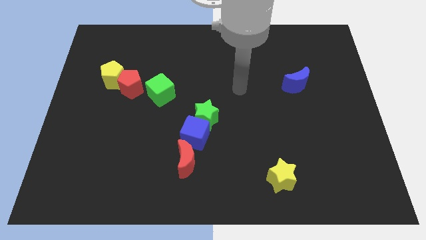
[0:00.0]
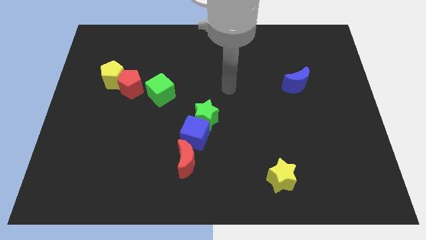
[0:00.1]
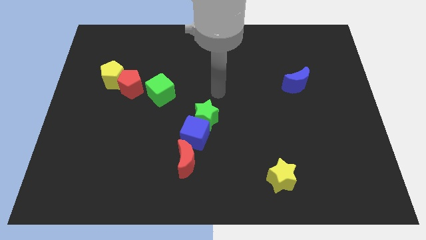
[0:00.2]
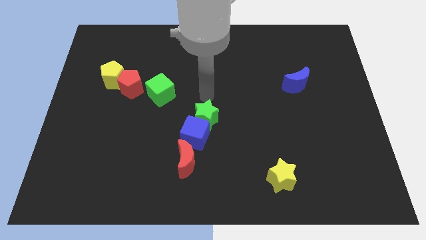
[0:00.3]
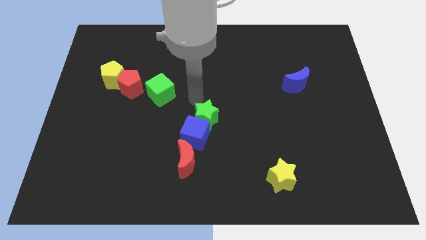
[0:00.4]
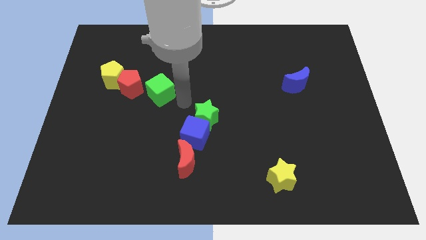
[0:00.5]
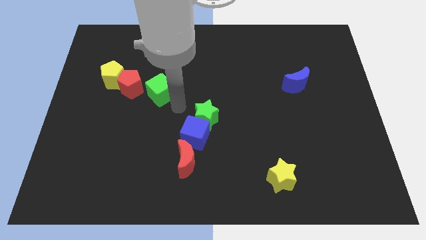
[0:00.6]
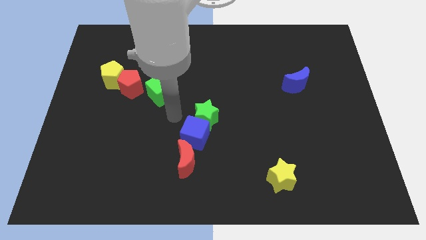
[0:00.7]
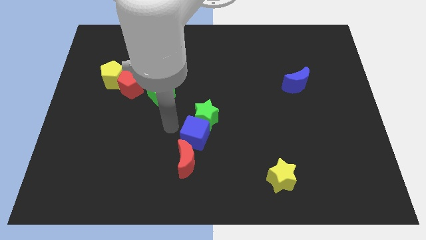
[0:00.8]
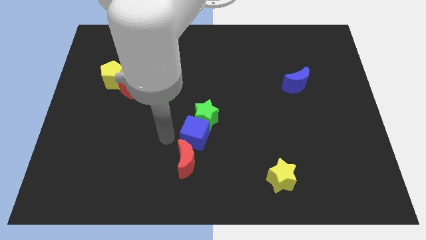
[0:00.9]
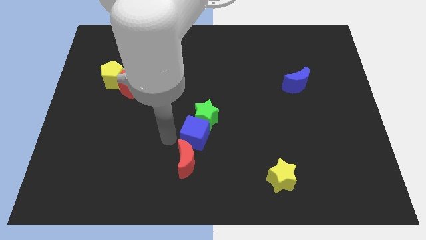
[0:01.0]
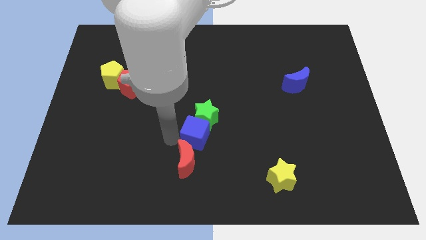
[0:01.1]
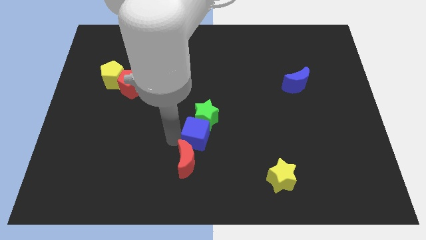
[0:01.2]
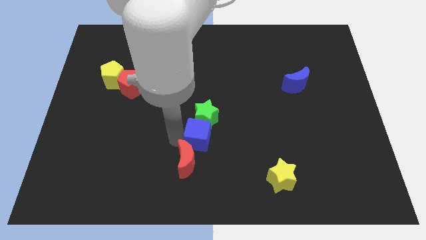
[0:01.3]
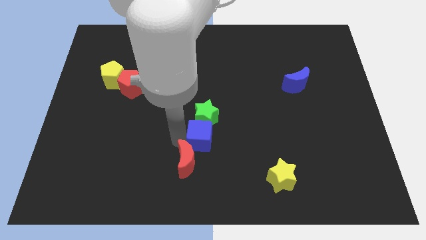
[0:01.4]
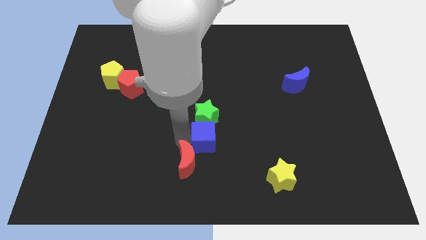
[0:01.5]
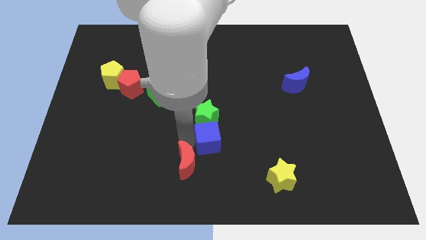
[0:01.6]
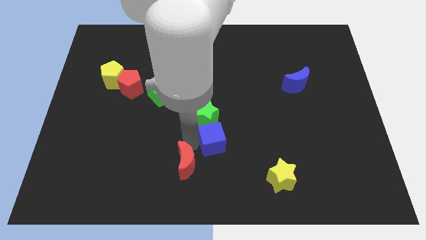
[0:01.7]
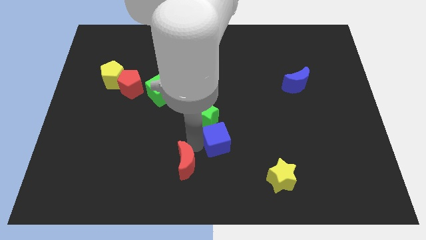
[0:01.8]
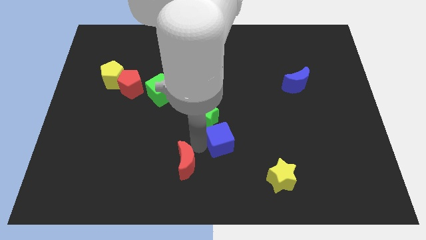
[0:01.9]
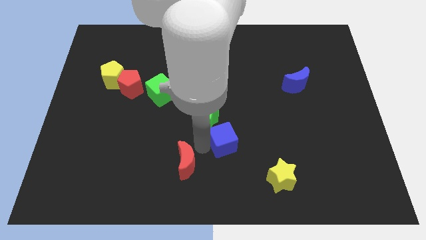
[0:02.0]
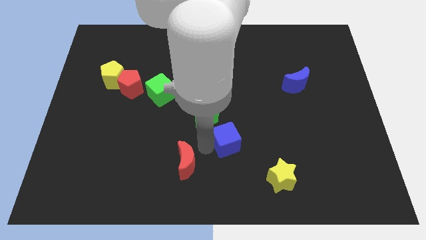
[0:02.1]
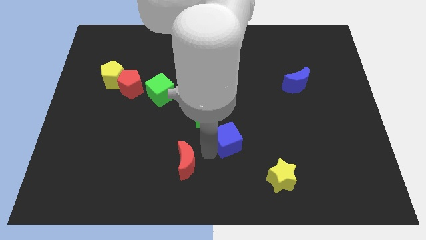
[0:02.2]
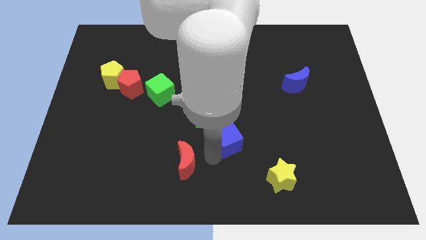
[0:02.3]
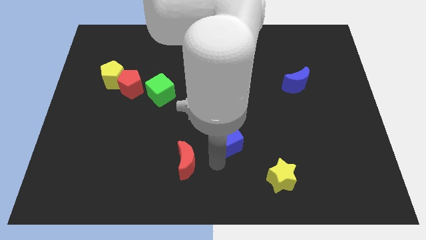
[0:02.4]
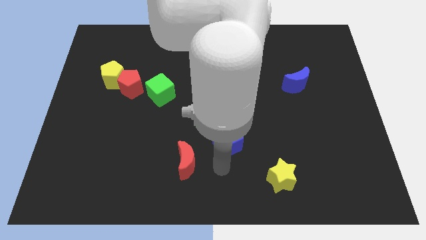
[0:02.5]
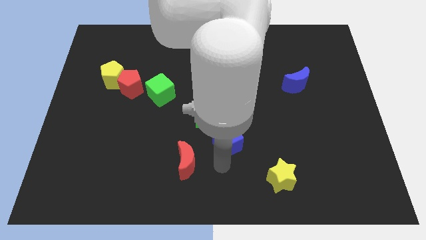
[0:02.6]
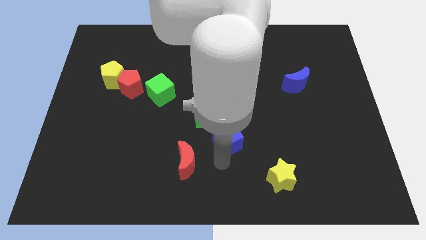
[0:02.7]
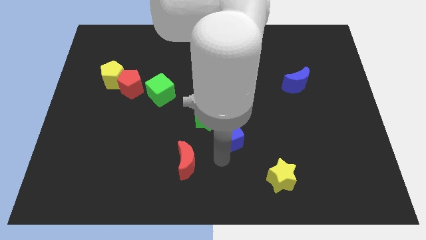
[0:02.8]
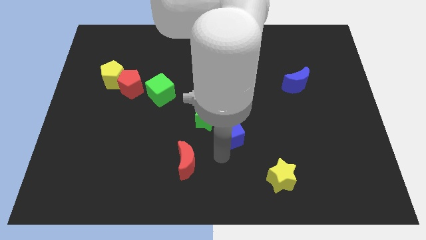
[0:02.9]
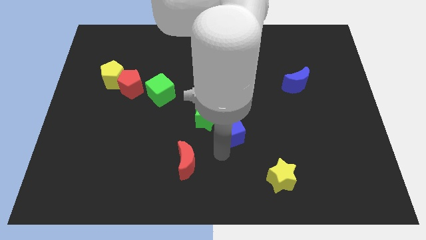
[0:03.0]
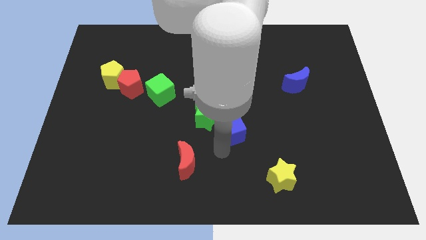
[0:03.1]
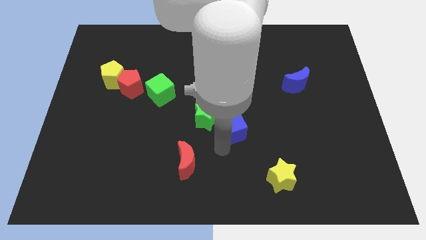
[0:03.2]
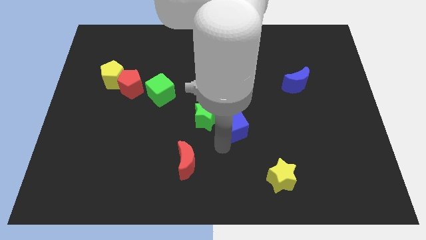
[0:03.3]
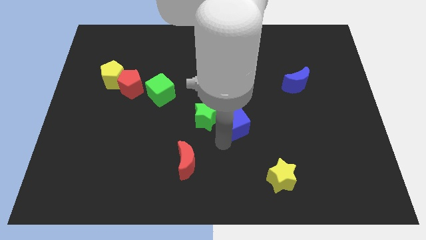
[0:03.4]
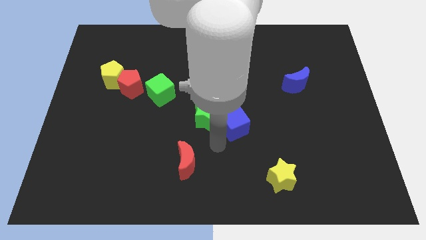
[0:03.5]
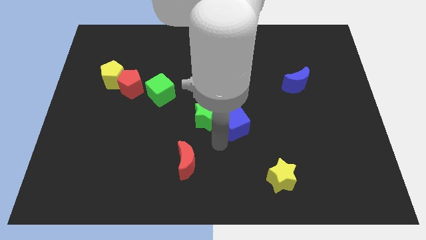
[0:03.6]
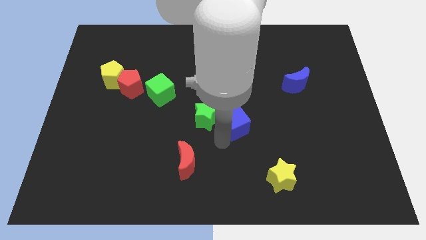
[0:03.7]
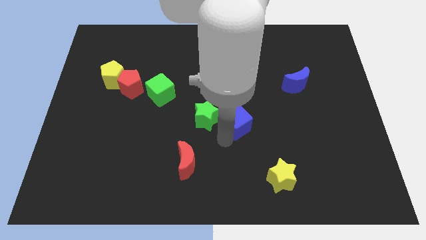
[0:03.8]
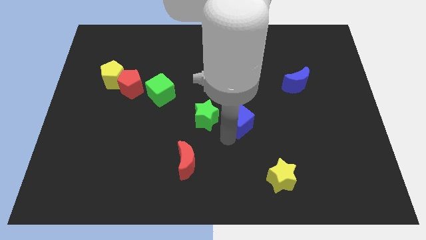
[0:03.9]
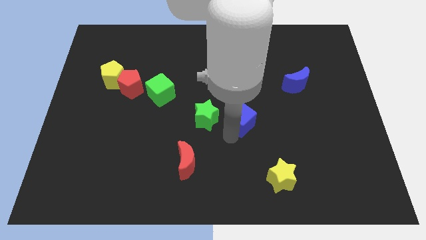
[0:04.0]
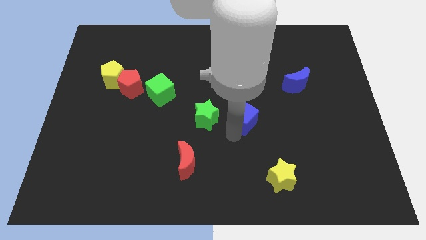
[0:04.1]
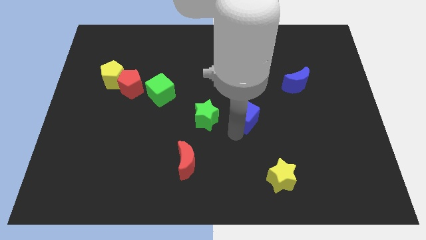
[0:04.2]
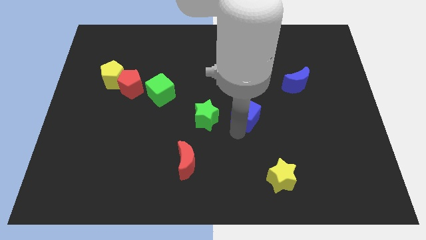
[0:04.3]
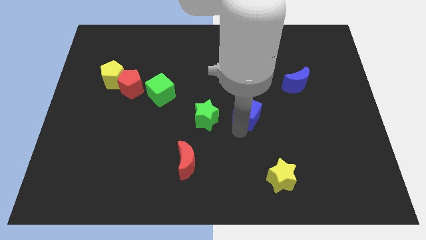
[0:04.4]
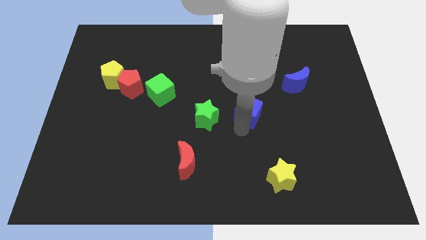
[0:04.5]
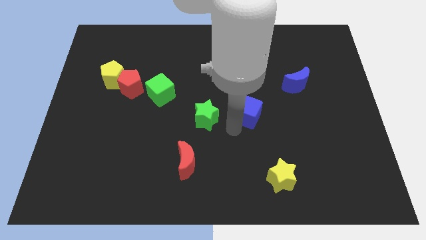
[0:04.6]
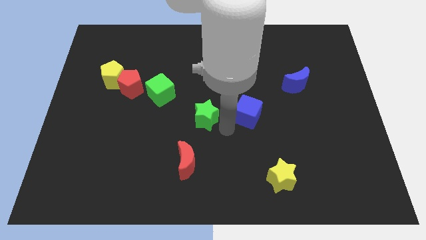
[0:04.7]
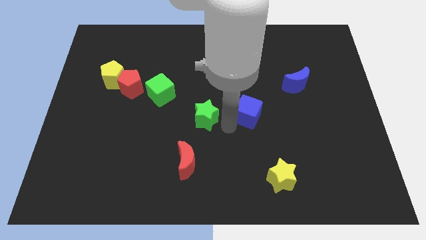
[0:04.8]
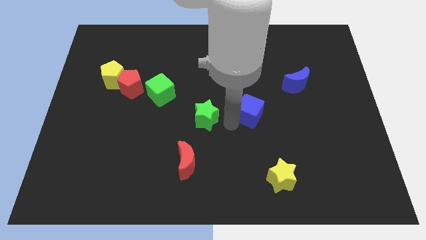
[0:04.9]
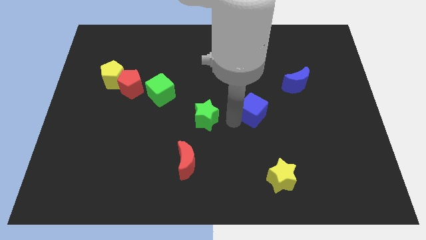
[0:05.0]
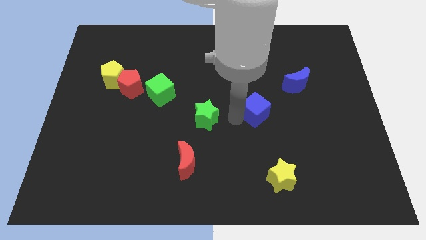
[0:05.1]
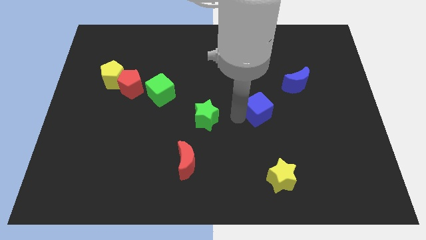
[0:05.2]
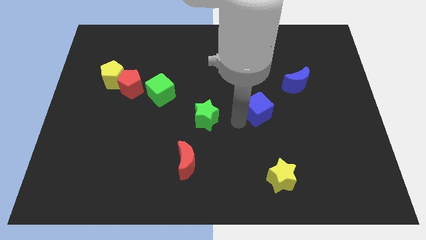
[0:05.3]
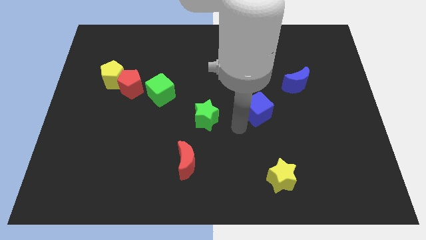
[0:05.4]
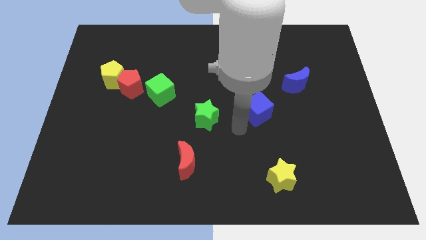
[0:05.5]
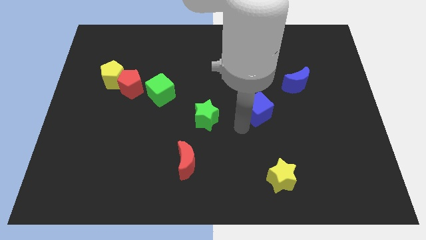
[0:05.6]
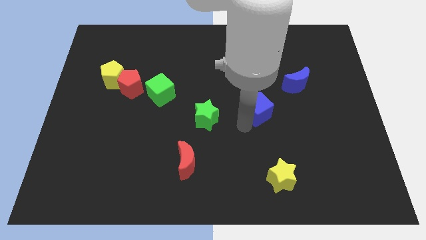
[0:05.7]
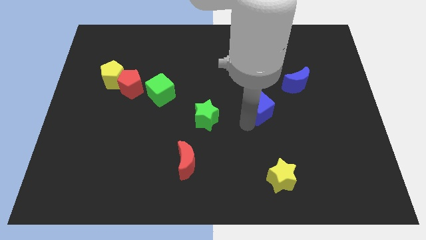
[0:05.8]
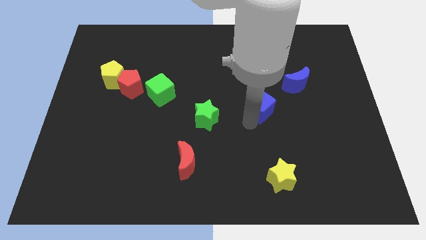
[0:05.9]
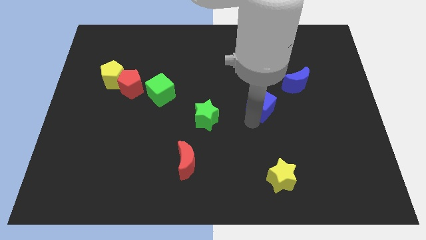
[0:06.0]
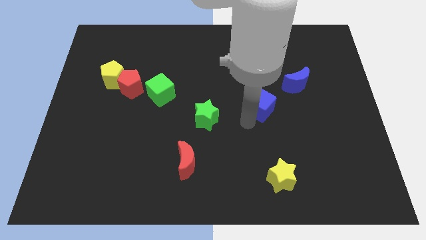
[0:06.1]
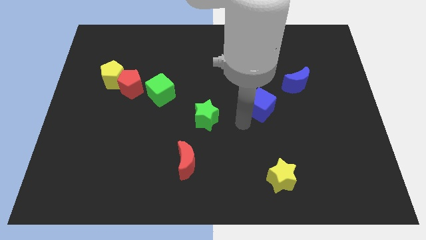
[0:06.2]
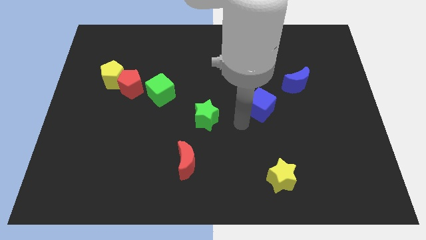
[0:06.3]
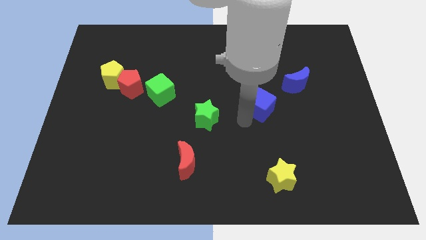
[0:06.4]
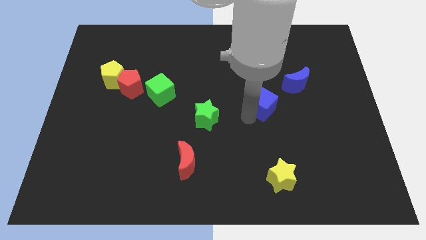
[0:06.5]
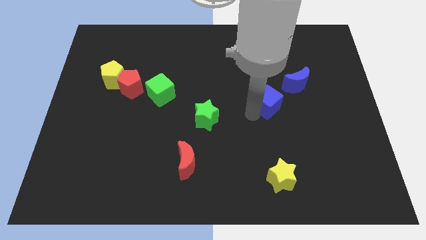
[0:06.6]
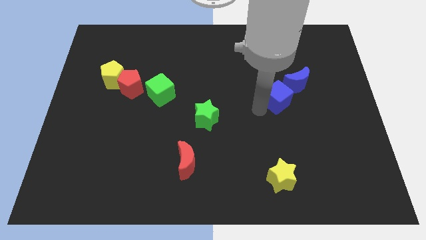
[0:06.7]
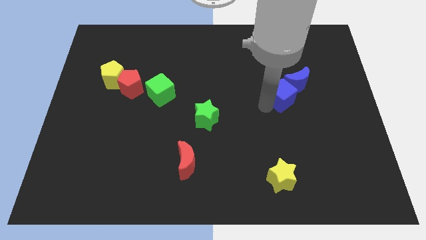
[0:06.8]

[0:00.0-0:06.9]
put the blue cube next to the blue moon
